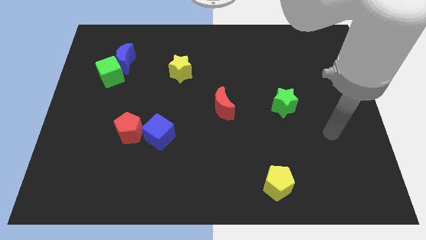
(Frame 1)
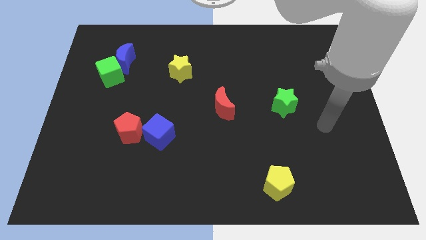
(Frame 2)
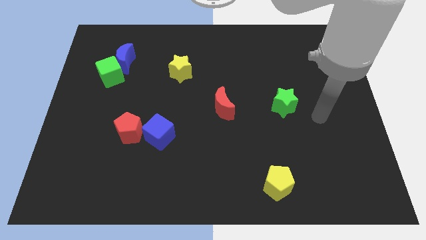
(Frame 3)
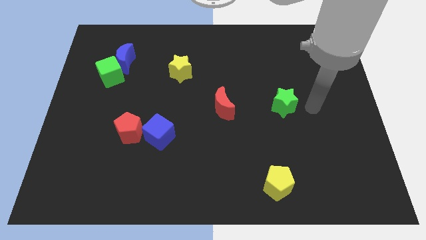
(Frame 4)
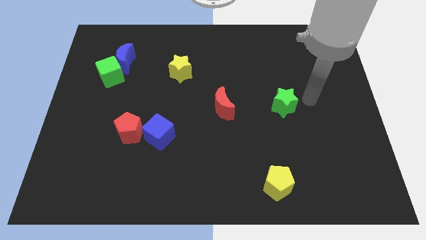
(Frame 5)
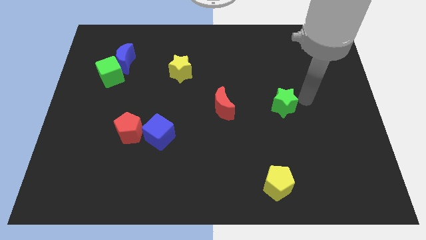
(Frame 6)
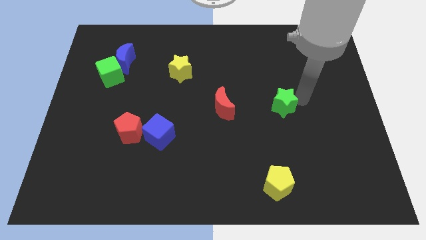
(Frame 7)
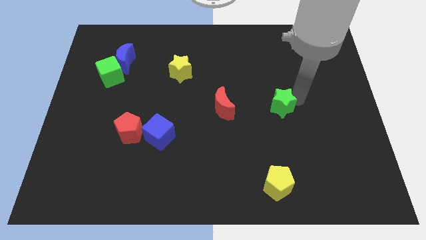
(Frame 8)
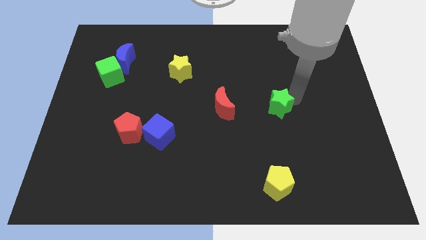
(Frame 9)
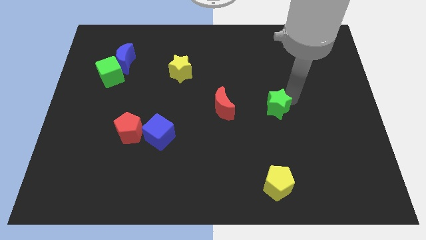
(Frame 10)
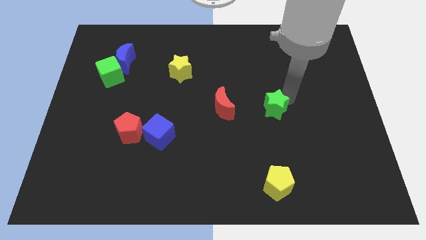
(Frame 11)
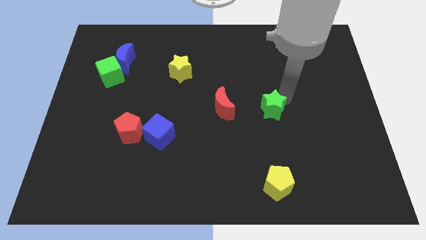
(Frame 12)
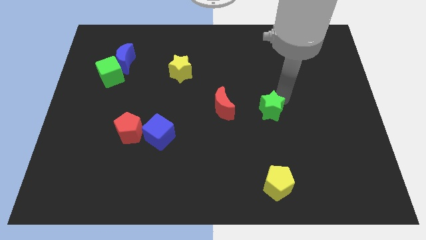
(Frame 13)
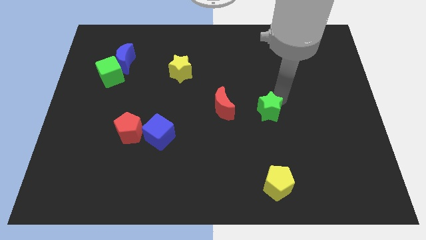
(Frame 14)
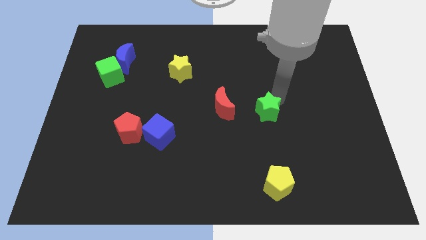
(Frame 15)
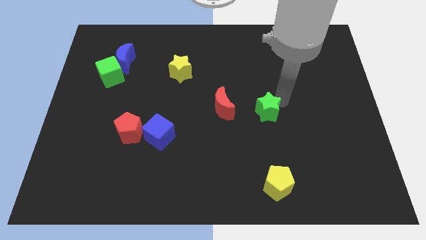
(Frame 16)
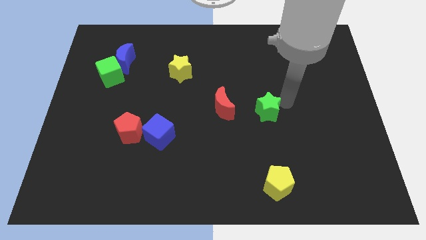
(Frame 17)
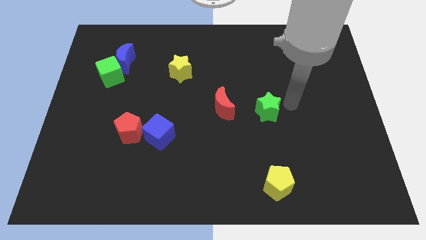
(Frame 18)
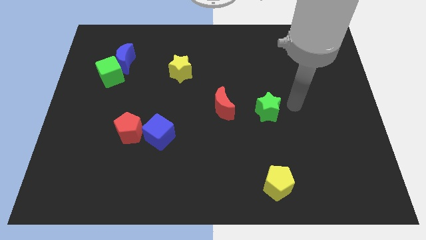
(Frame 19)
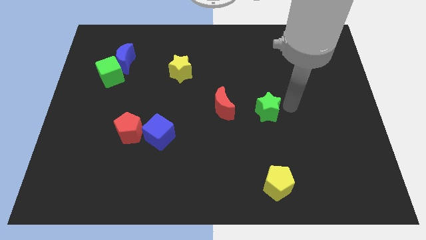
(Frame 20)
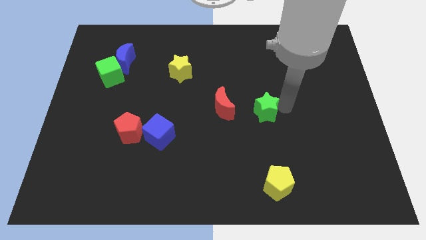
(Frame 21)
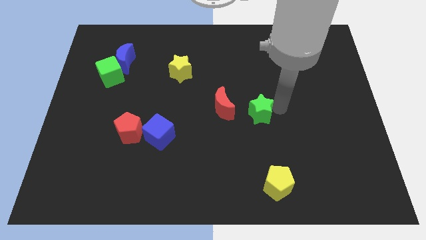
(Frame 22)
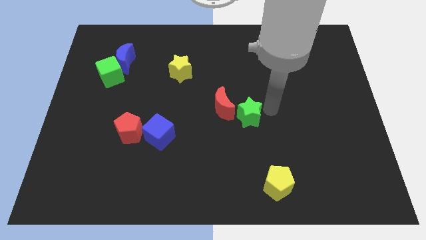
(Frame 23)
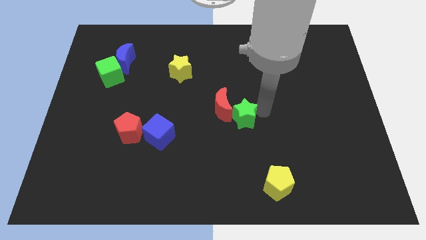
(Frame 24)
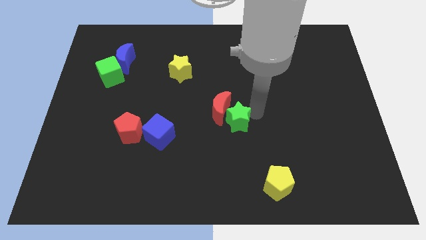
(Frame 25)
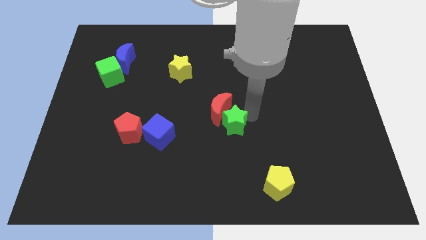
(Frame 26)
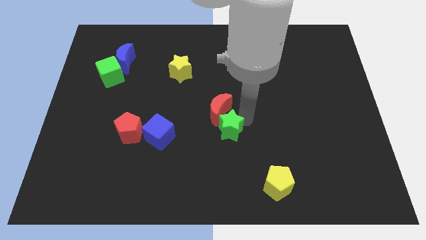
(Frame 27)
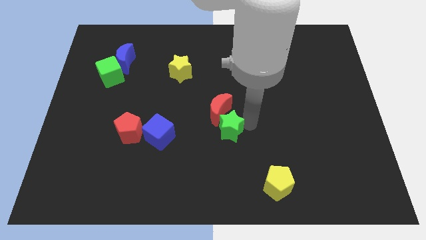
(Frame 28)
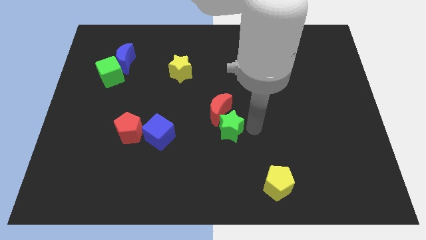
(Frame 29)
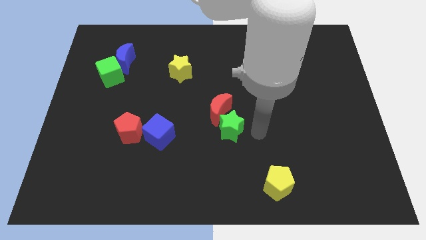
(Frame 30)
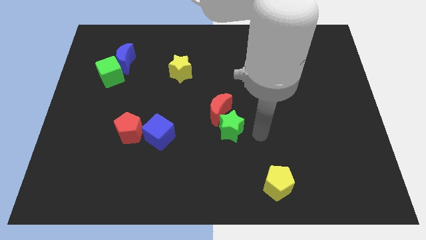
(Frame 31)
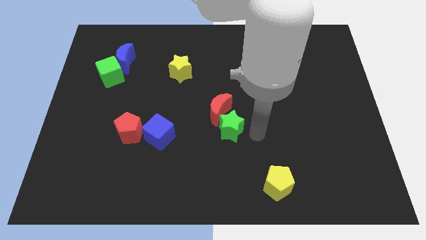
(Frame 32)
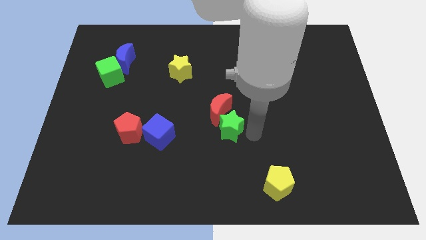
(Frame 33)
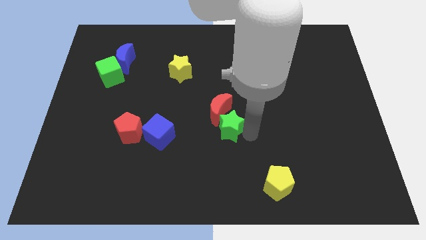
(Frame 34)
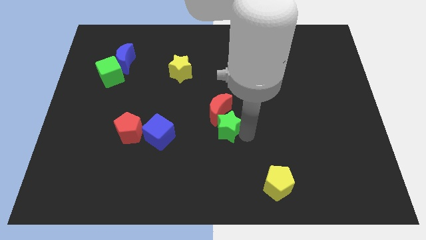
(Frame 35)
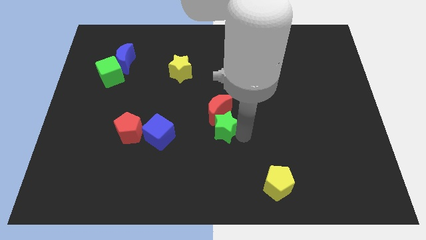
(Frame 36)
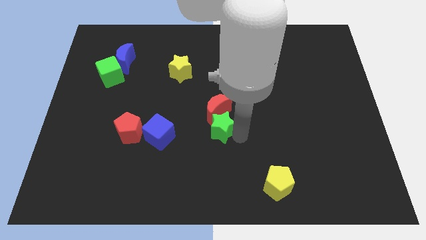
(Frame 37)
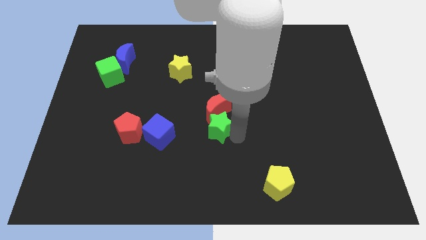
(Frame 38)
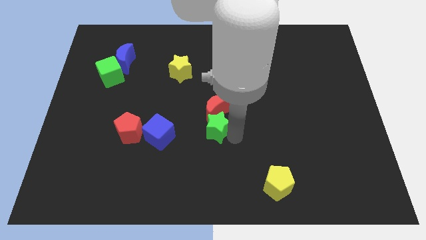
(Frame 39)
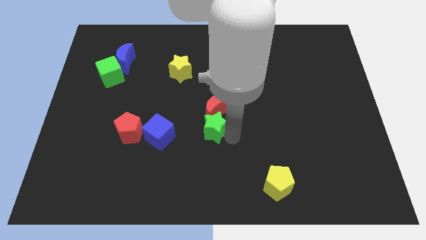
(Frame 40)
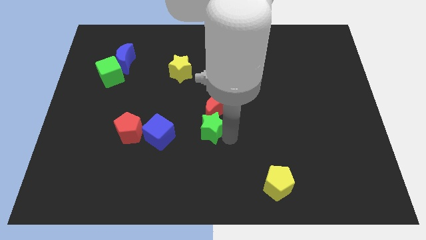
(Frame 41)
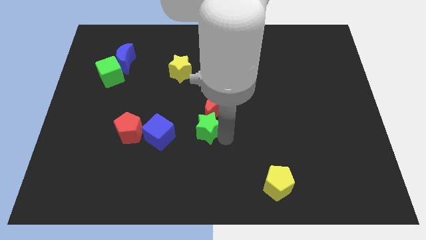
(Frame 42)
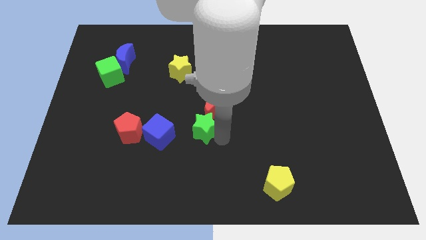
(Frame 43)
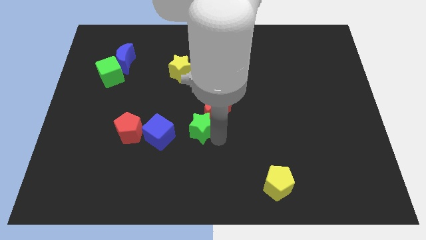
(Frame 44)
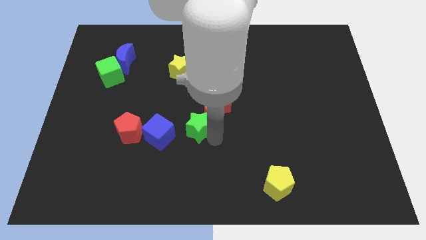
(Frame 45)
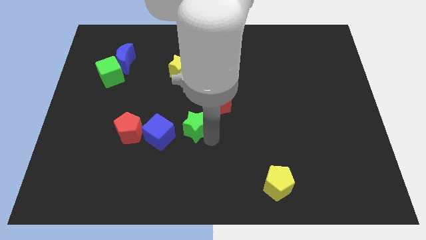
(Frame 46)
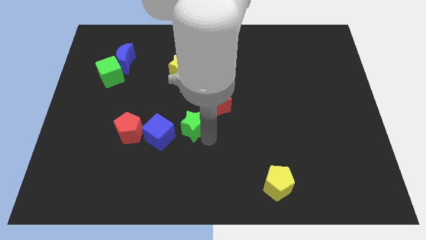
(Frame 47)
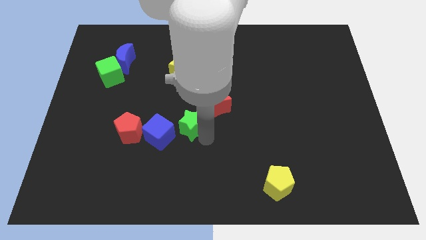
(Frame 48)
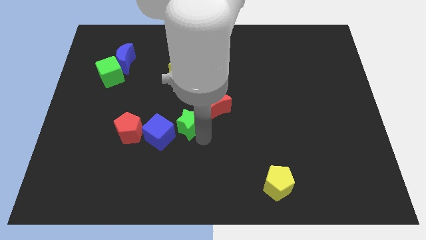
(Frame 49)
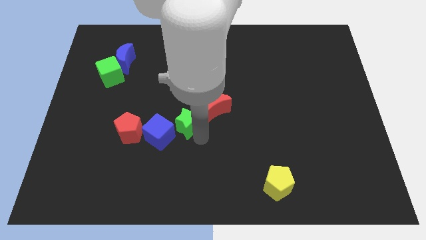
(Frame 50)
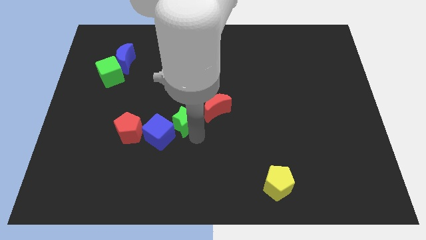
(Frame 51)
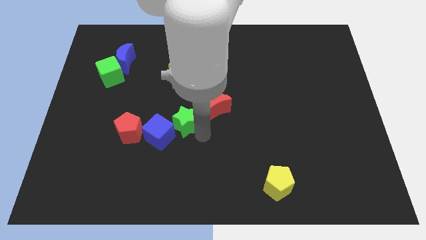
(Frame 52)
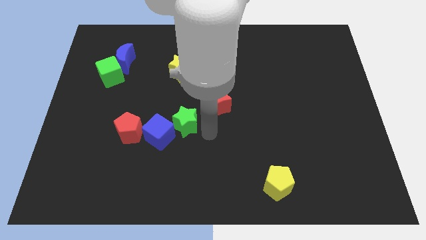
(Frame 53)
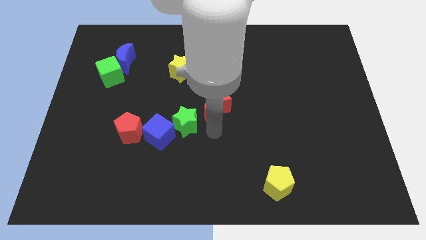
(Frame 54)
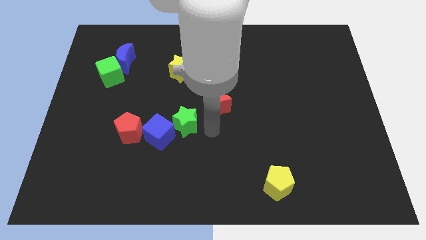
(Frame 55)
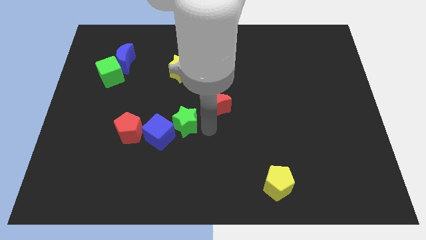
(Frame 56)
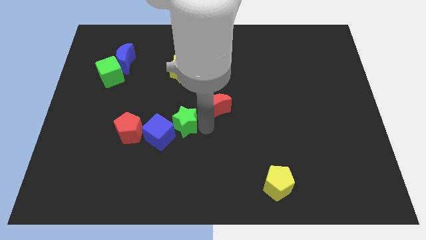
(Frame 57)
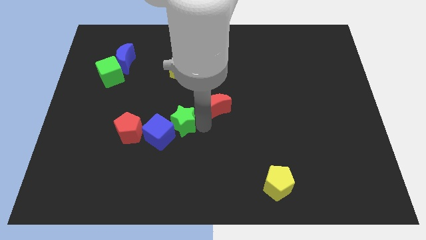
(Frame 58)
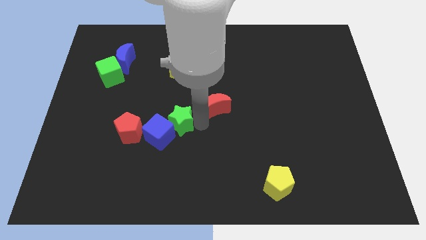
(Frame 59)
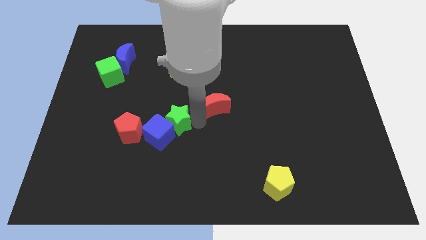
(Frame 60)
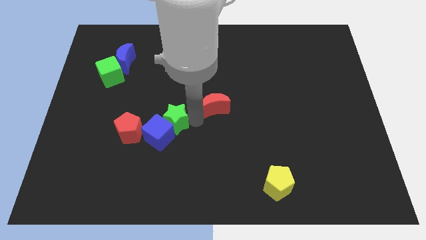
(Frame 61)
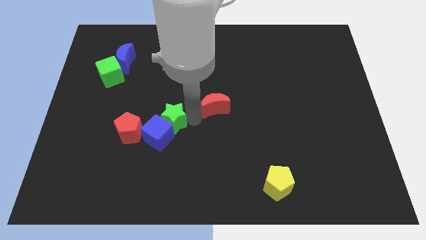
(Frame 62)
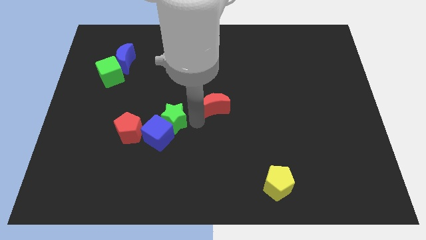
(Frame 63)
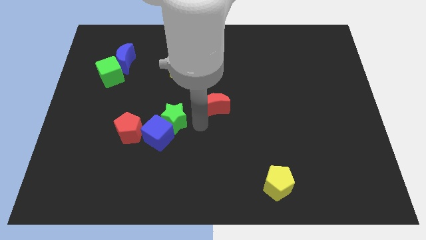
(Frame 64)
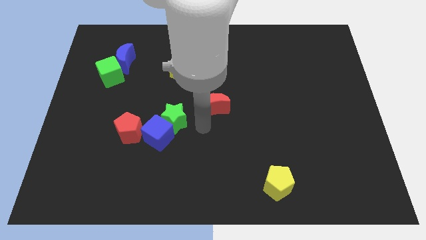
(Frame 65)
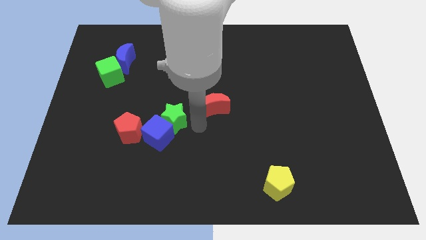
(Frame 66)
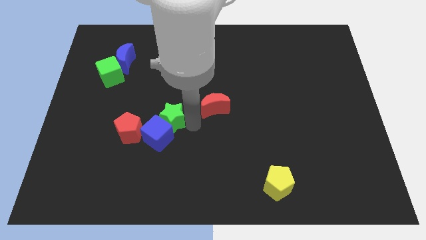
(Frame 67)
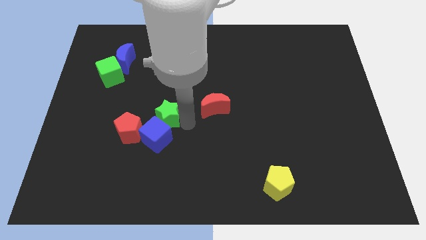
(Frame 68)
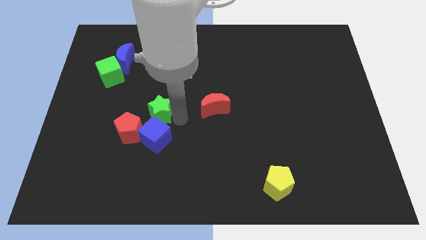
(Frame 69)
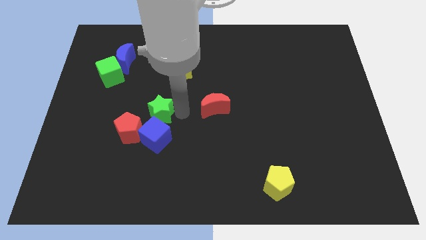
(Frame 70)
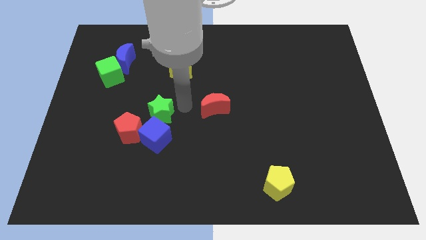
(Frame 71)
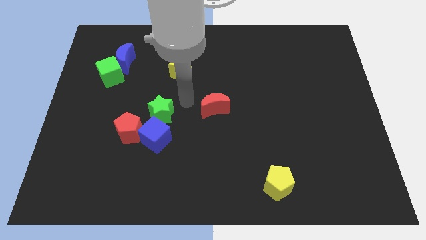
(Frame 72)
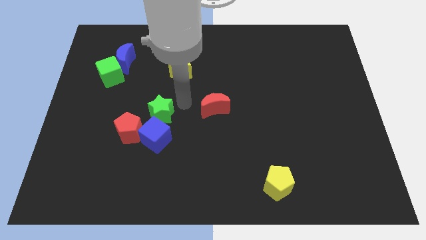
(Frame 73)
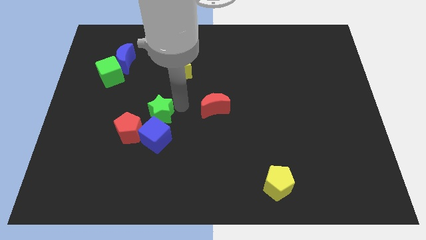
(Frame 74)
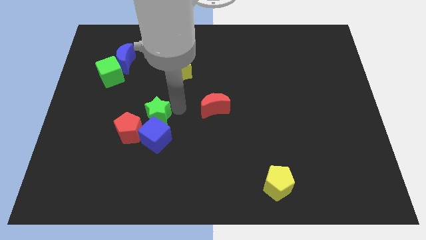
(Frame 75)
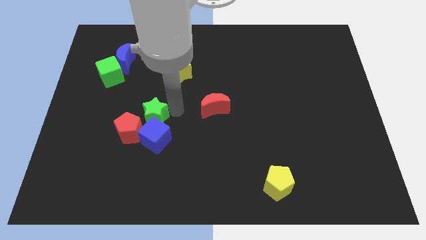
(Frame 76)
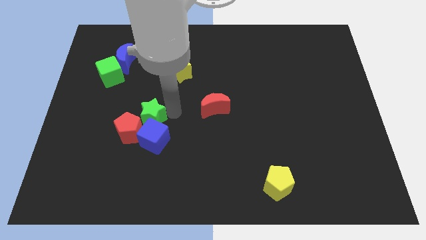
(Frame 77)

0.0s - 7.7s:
push the green star next to the red pentagon
